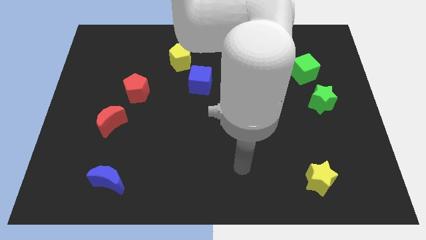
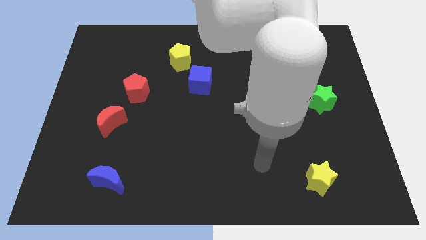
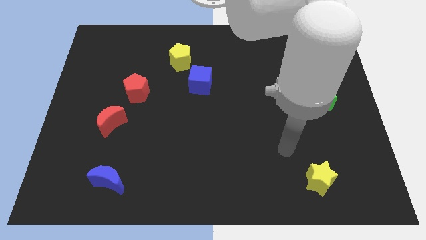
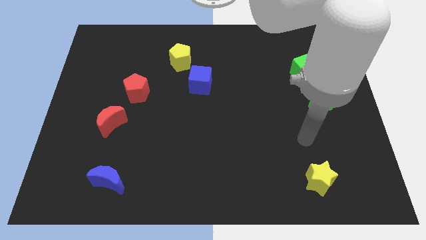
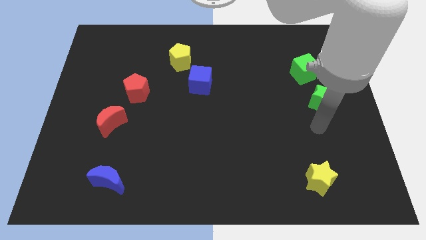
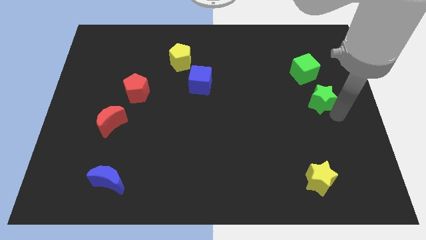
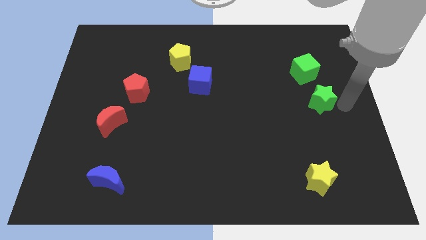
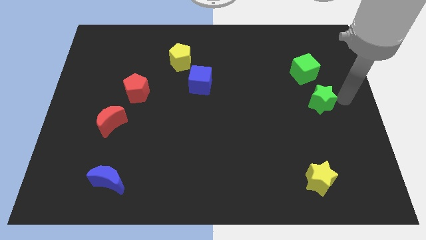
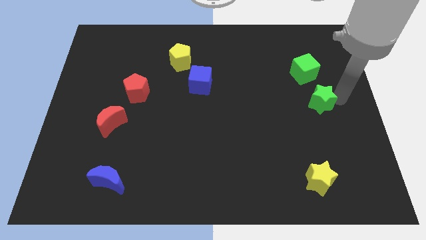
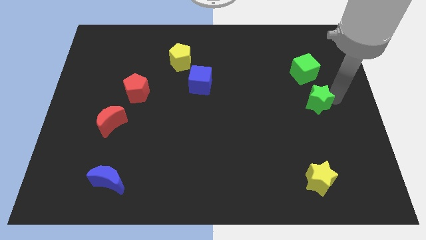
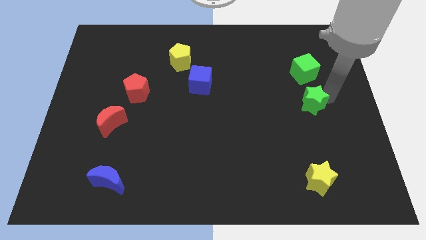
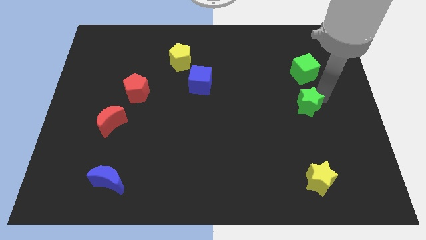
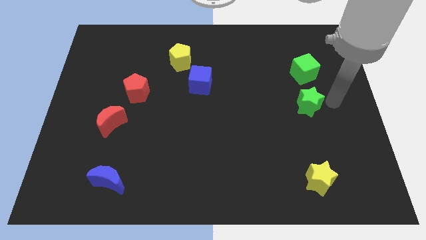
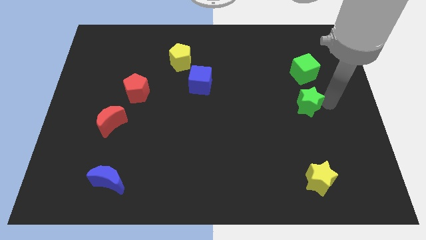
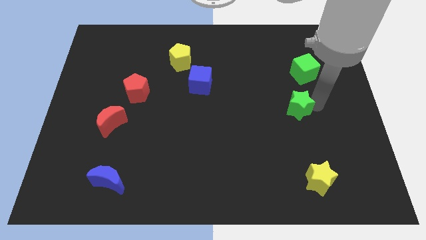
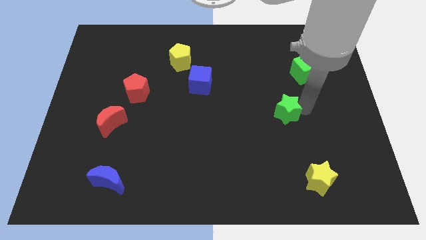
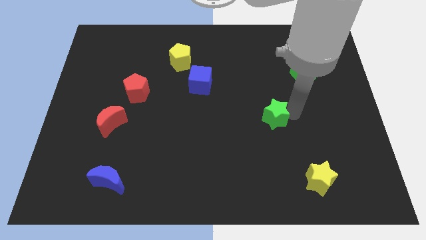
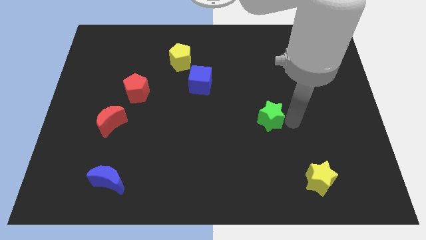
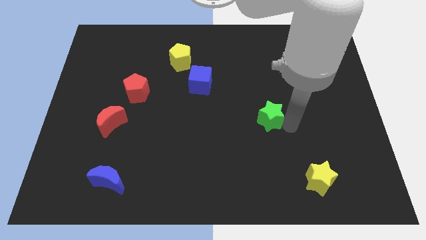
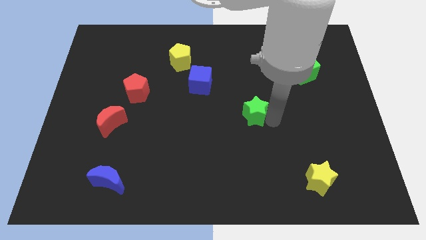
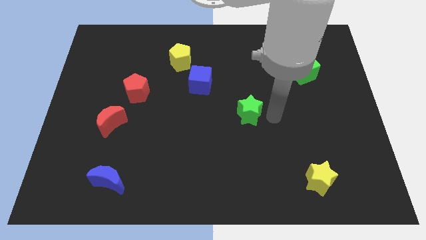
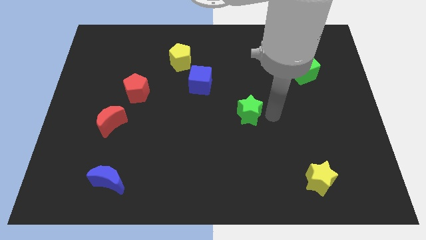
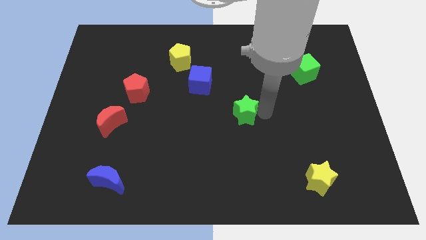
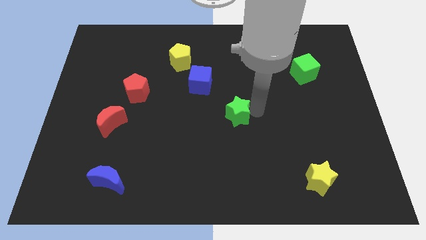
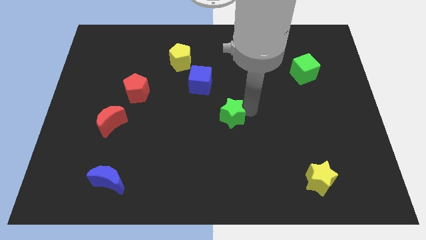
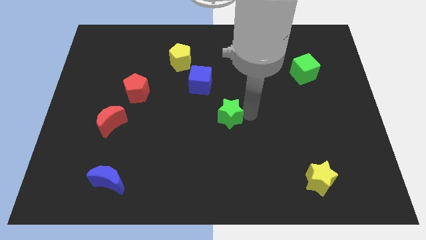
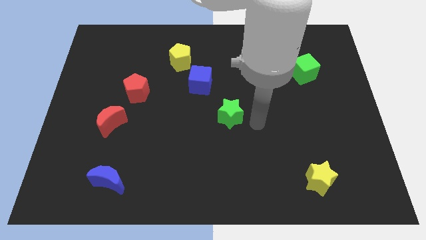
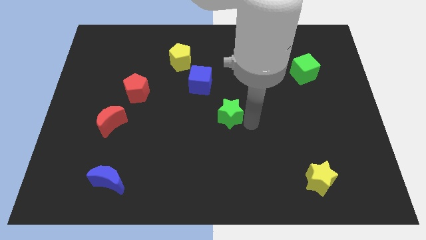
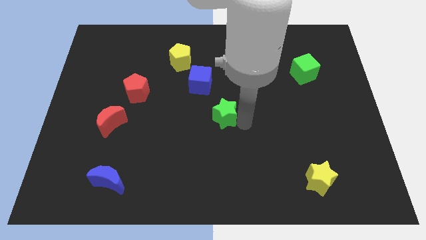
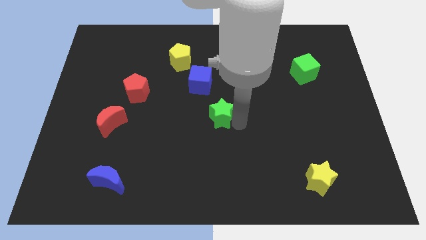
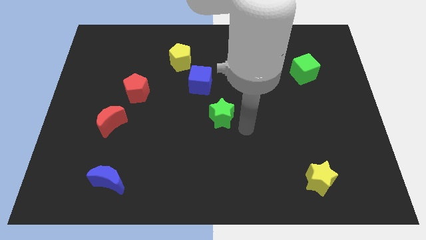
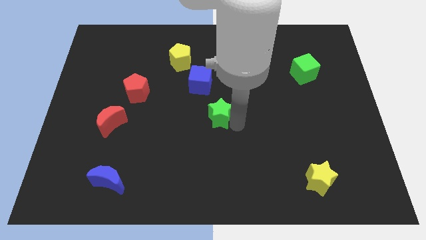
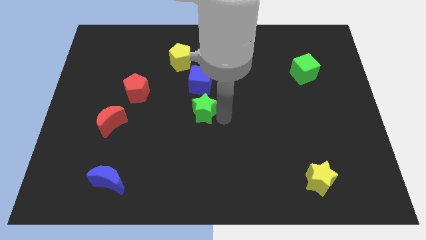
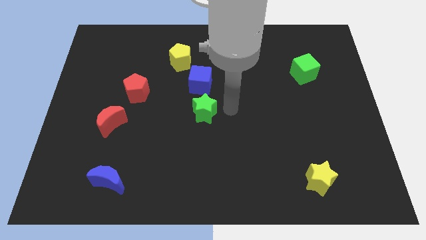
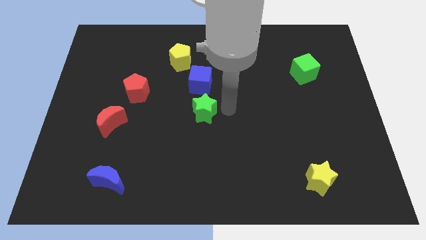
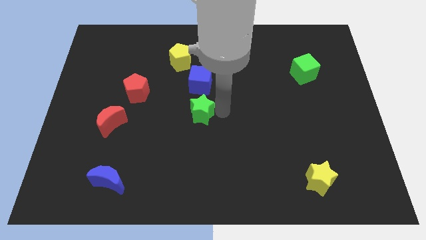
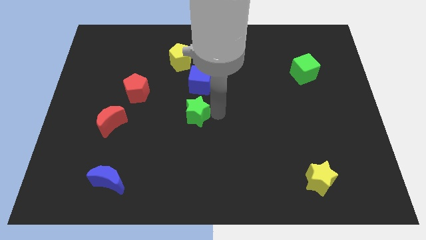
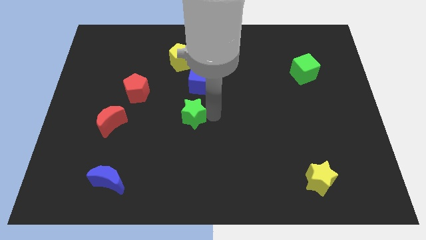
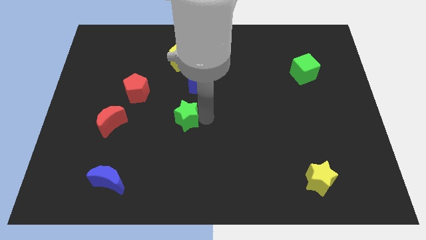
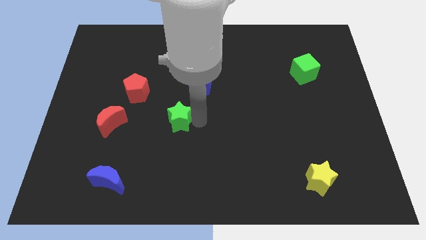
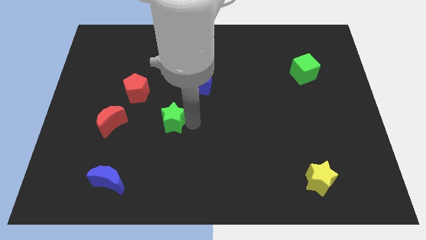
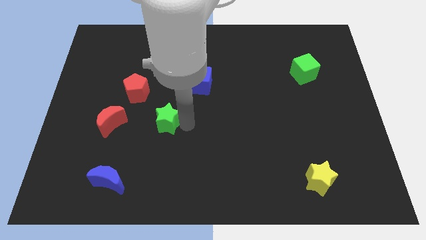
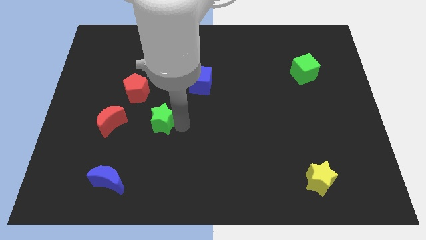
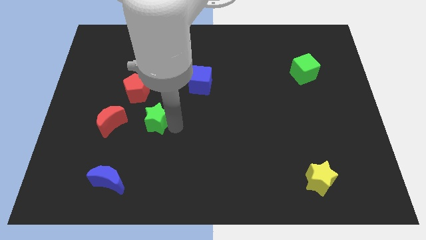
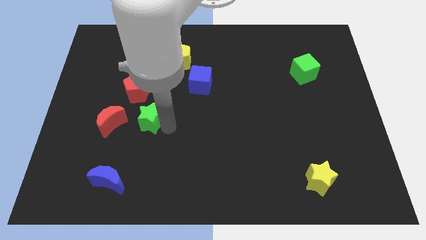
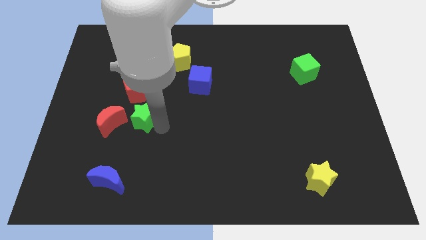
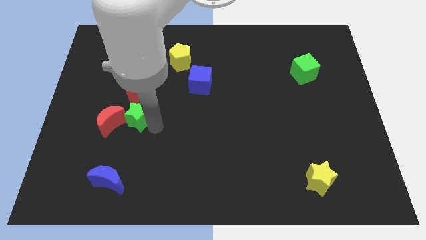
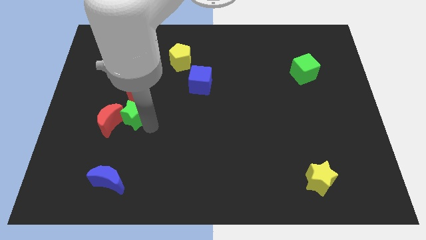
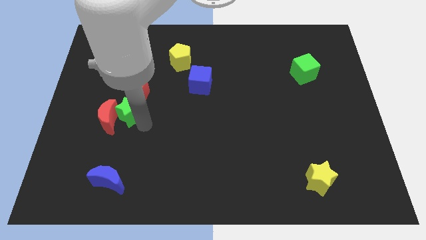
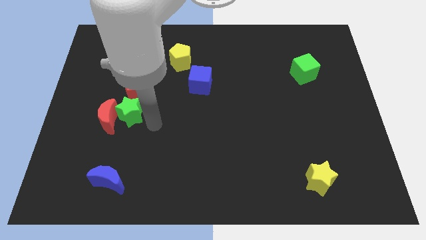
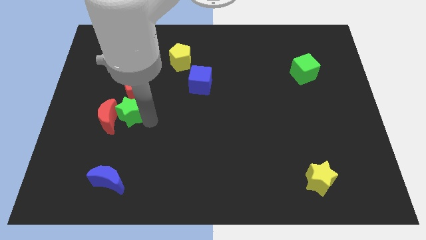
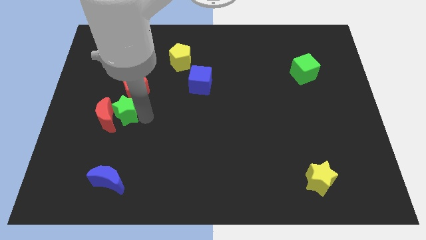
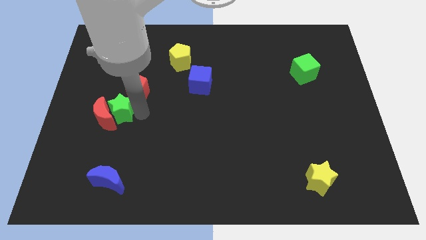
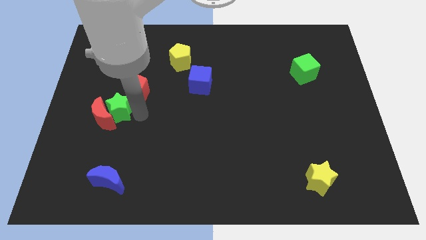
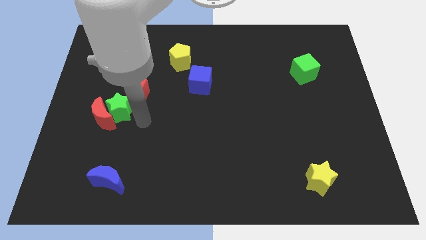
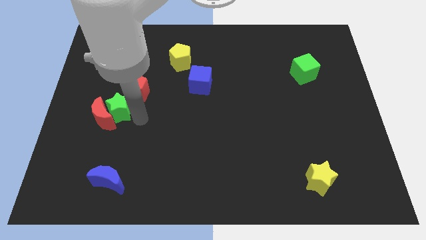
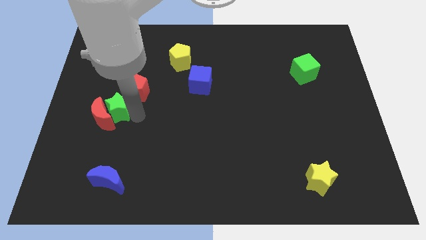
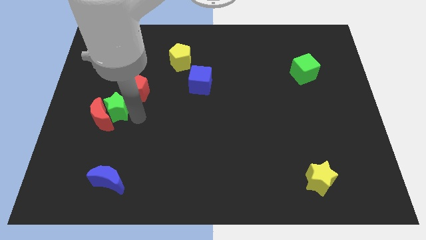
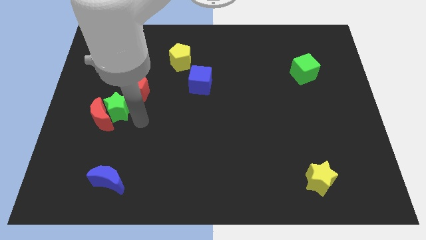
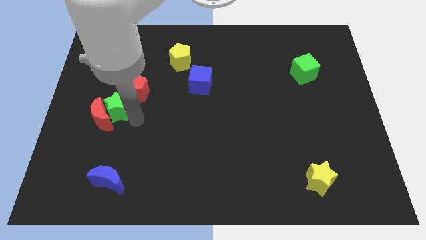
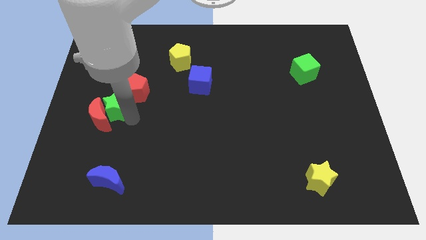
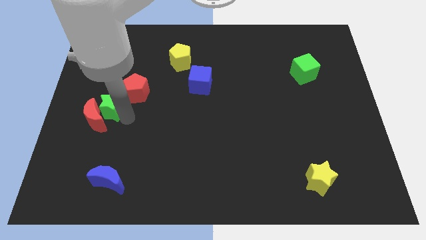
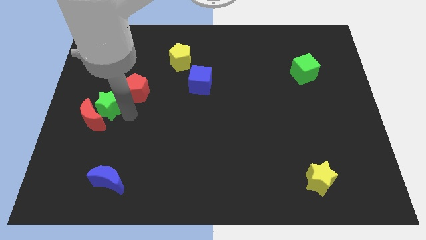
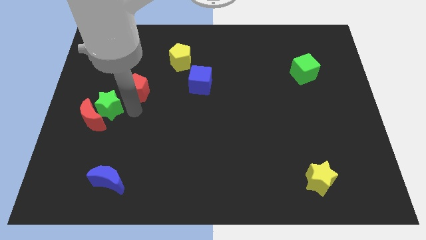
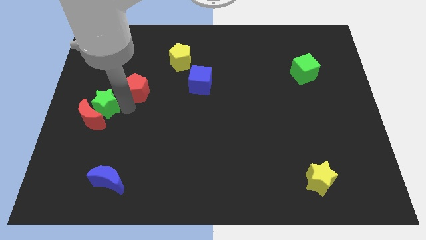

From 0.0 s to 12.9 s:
put the green star to the left side of the board
